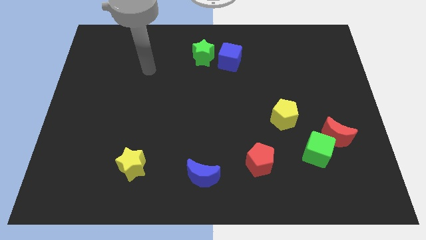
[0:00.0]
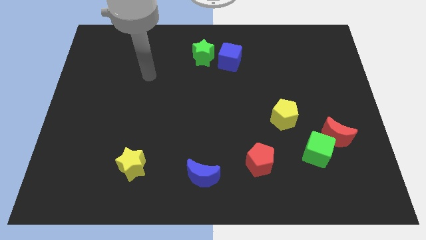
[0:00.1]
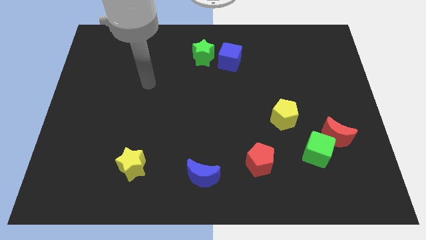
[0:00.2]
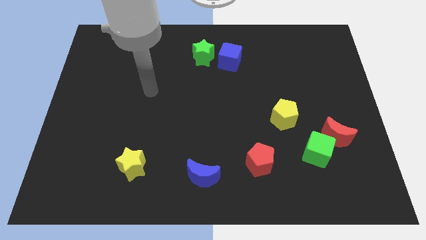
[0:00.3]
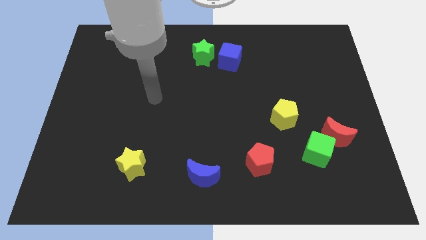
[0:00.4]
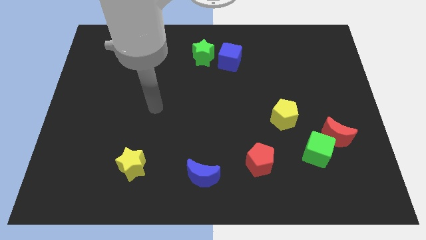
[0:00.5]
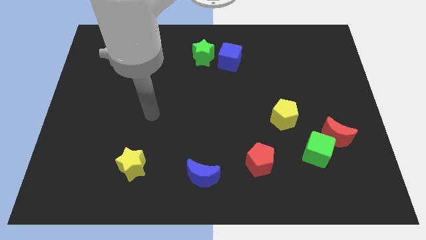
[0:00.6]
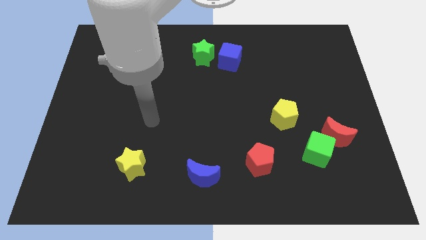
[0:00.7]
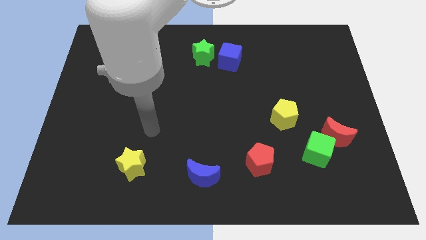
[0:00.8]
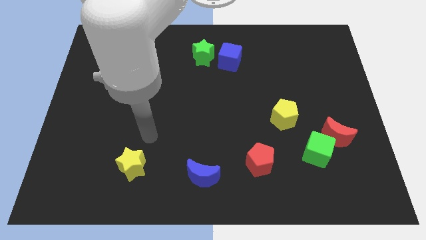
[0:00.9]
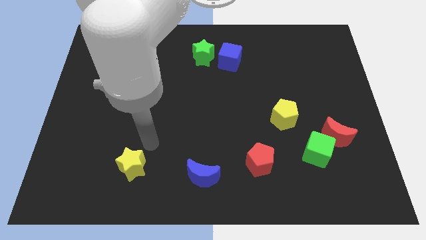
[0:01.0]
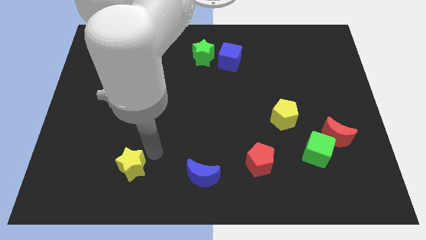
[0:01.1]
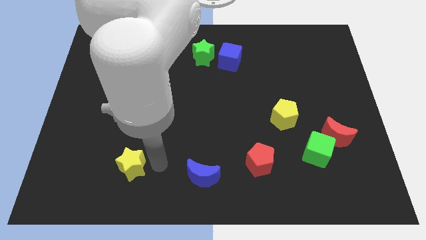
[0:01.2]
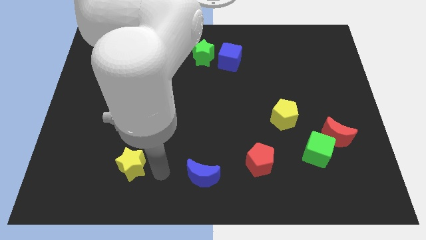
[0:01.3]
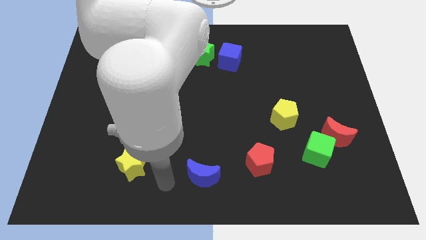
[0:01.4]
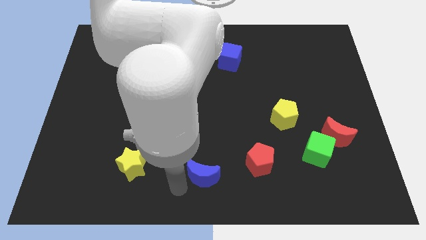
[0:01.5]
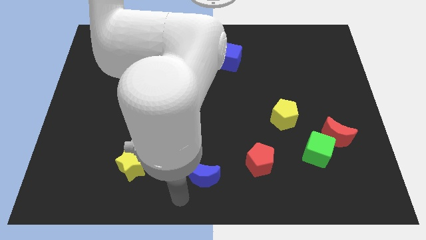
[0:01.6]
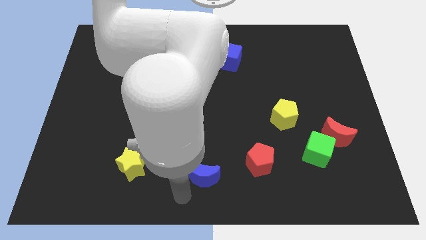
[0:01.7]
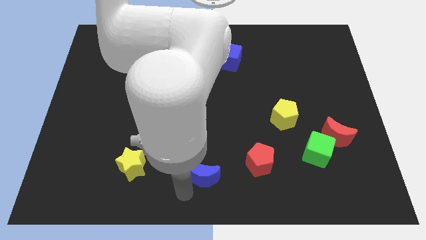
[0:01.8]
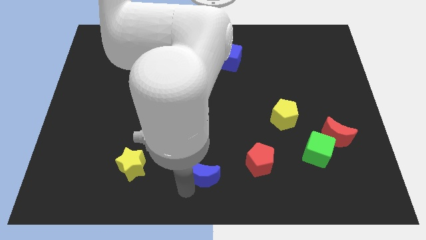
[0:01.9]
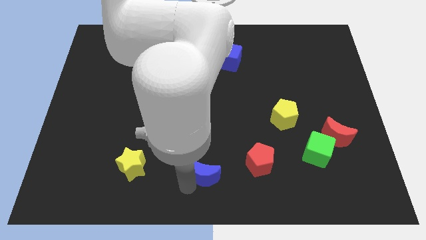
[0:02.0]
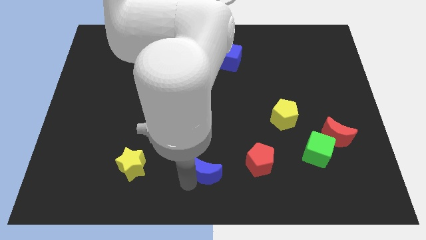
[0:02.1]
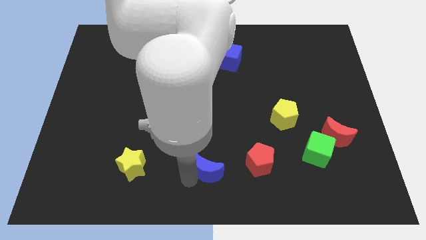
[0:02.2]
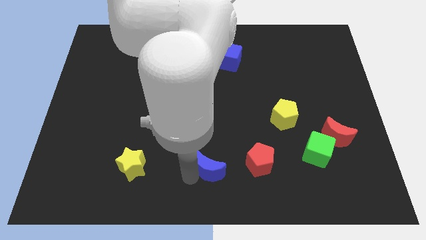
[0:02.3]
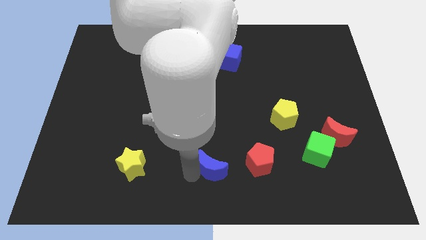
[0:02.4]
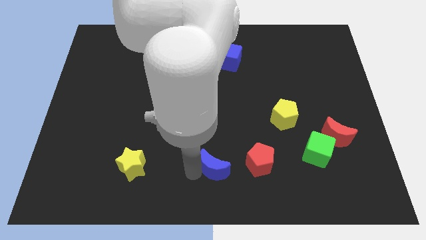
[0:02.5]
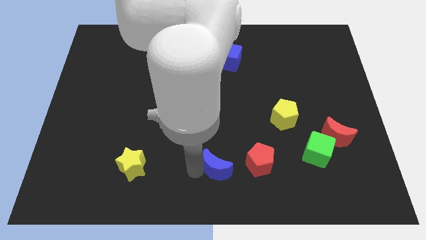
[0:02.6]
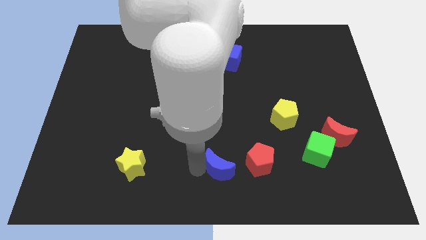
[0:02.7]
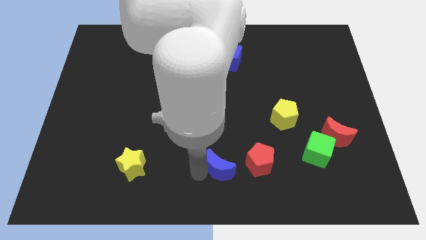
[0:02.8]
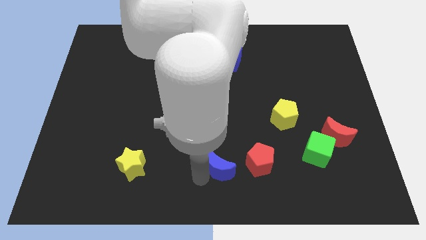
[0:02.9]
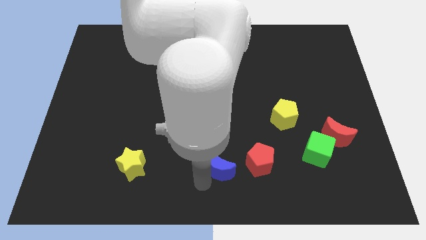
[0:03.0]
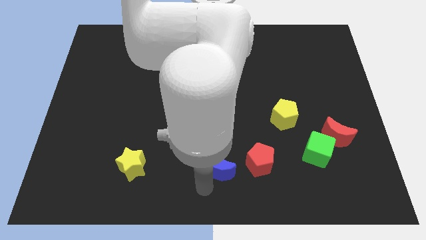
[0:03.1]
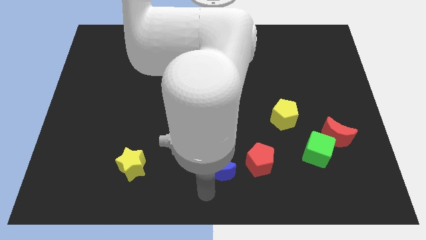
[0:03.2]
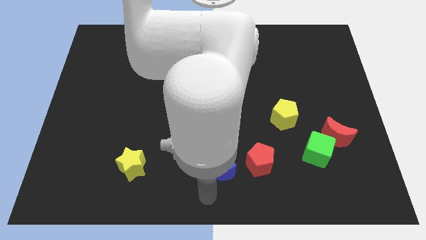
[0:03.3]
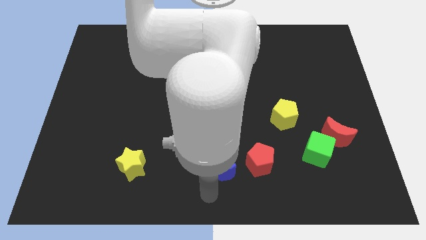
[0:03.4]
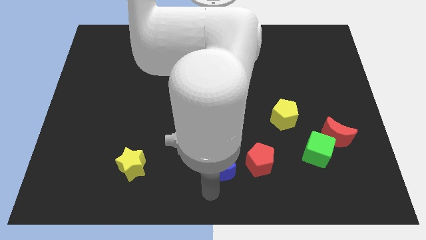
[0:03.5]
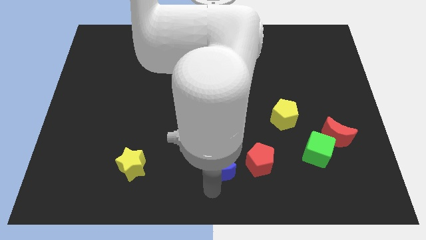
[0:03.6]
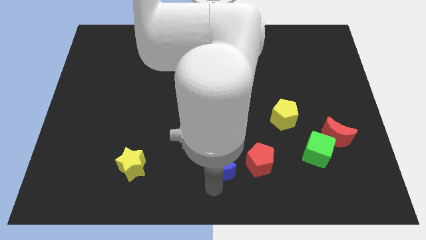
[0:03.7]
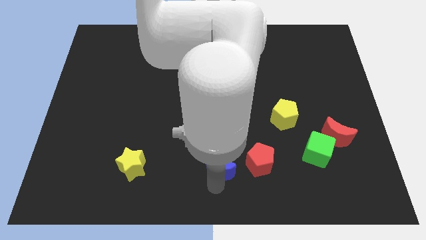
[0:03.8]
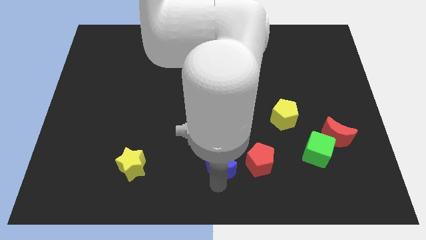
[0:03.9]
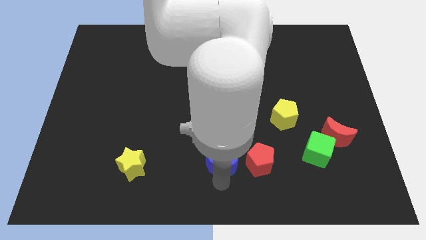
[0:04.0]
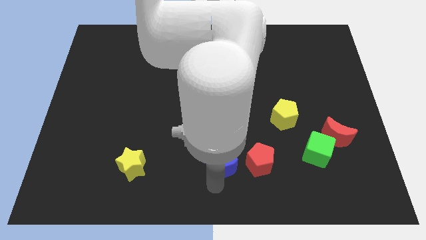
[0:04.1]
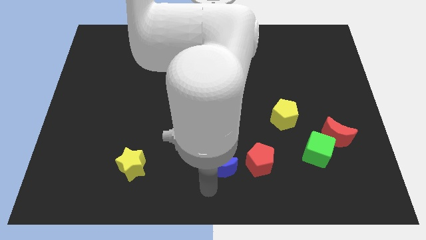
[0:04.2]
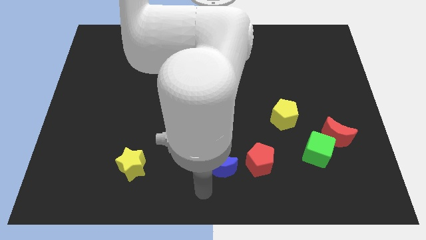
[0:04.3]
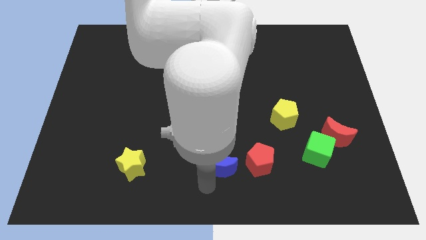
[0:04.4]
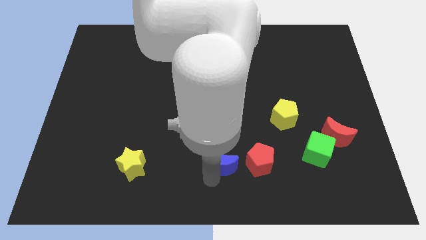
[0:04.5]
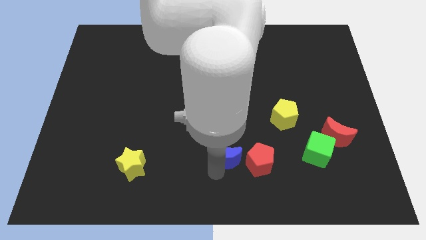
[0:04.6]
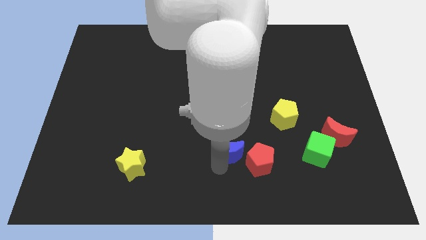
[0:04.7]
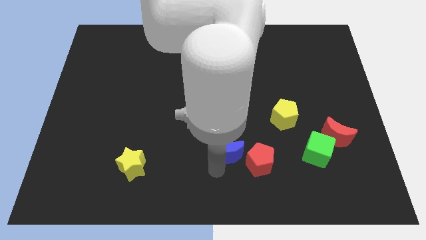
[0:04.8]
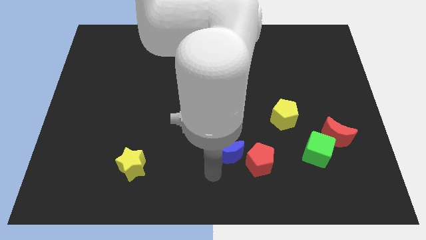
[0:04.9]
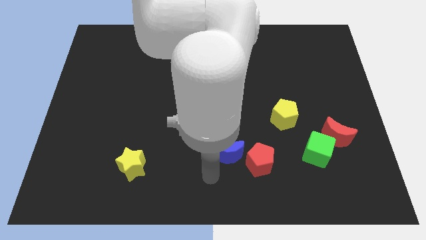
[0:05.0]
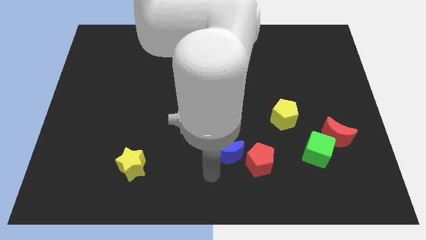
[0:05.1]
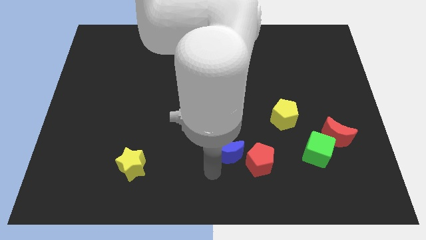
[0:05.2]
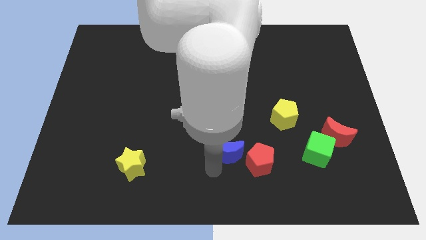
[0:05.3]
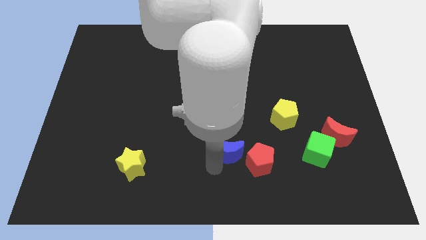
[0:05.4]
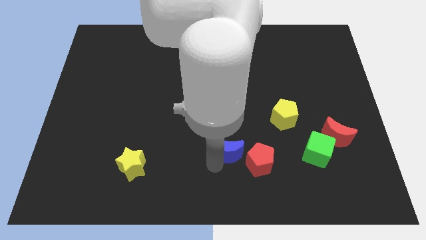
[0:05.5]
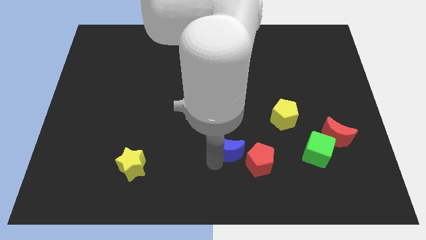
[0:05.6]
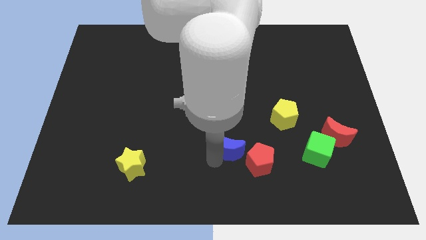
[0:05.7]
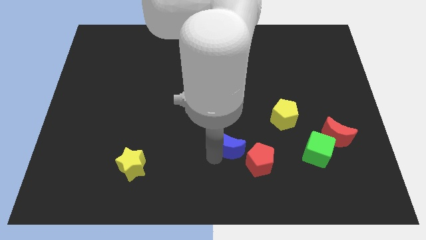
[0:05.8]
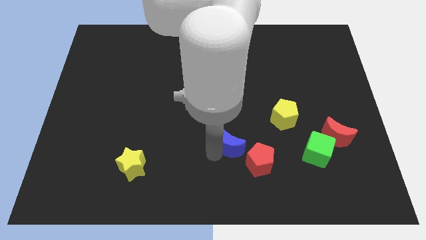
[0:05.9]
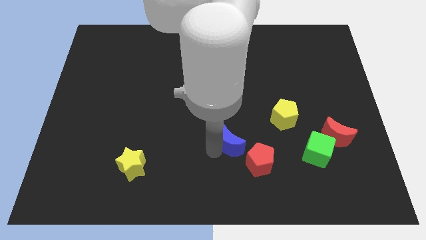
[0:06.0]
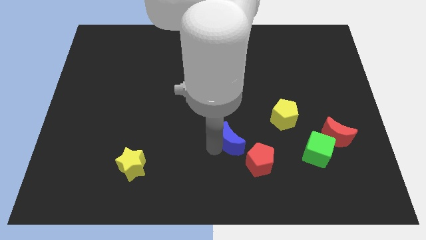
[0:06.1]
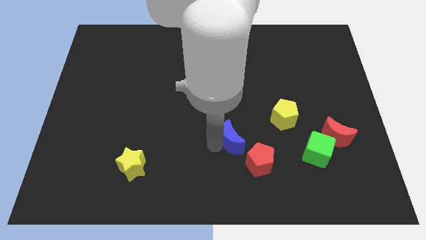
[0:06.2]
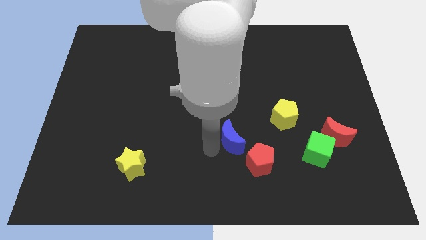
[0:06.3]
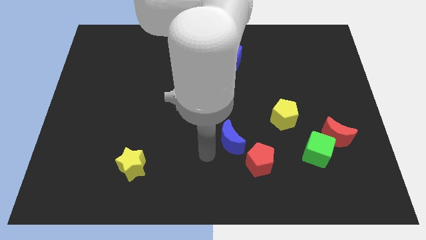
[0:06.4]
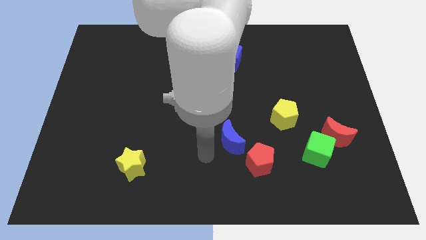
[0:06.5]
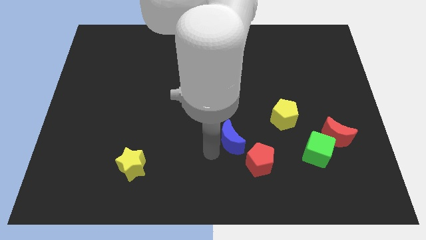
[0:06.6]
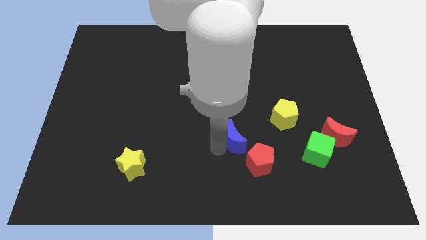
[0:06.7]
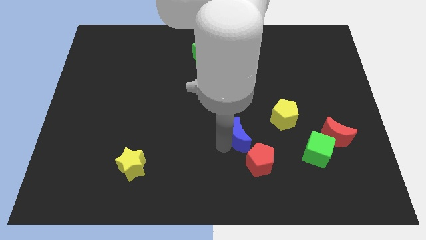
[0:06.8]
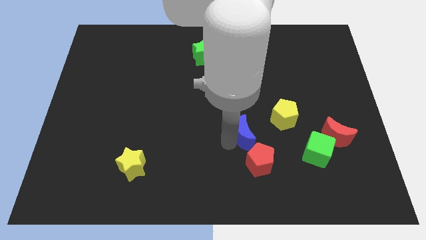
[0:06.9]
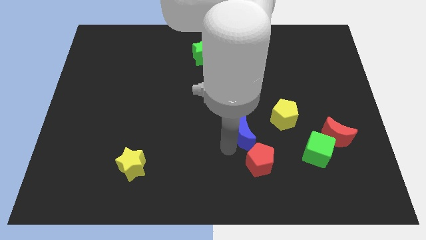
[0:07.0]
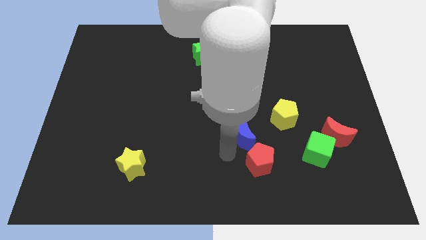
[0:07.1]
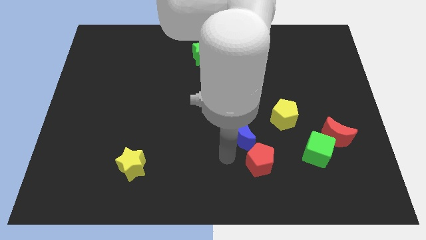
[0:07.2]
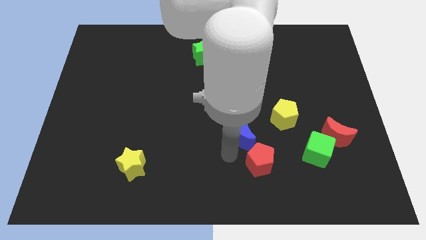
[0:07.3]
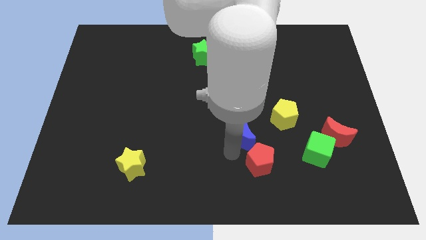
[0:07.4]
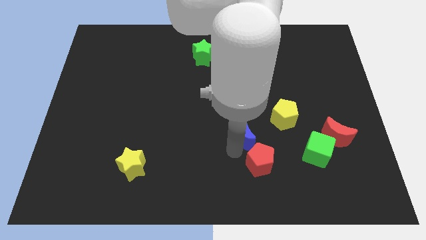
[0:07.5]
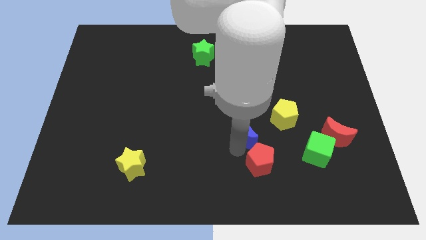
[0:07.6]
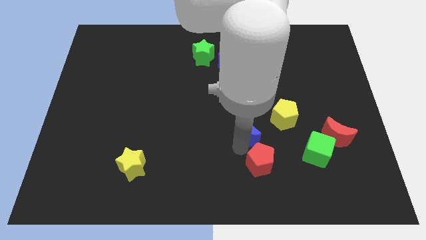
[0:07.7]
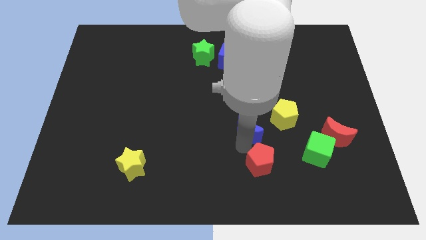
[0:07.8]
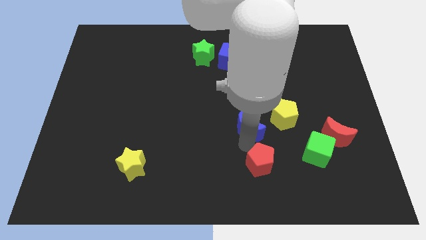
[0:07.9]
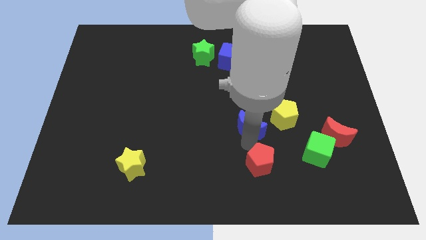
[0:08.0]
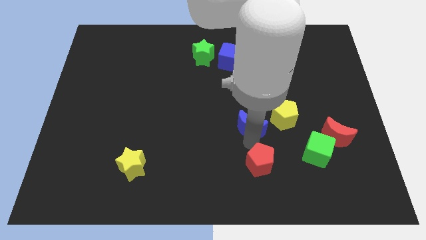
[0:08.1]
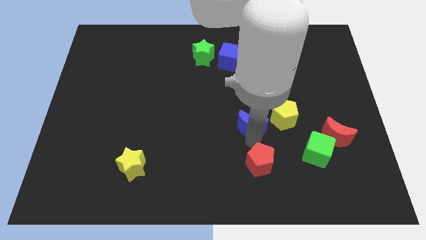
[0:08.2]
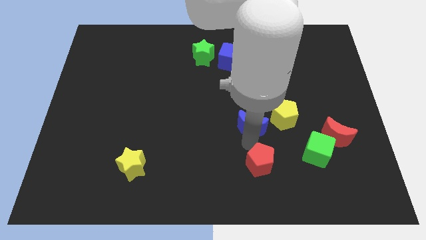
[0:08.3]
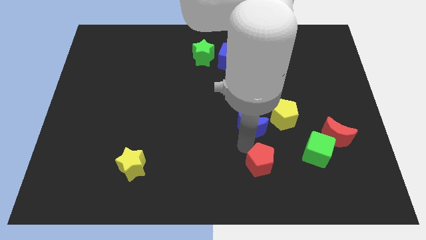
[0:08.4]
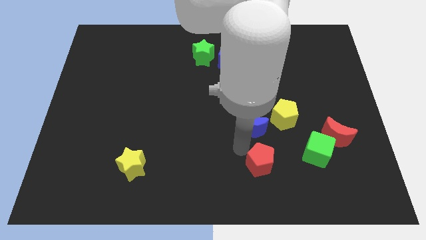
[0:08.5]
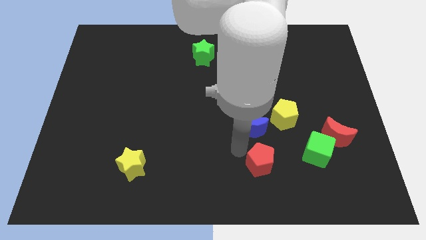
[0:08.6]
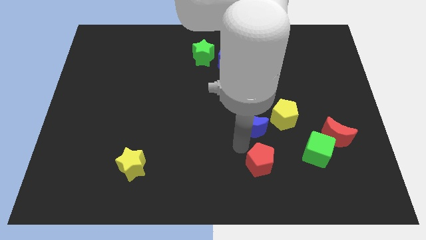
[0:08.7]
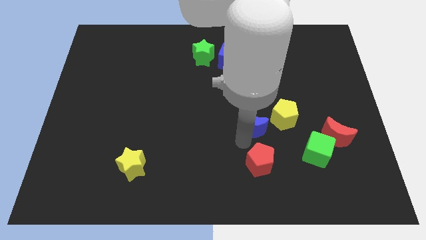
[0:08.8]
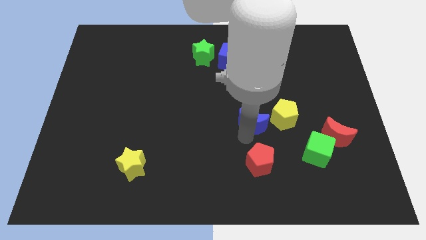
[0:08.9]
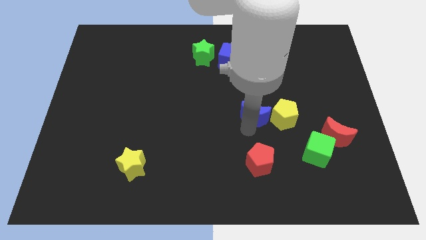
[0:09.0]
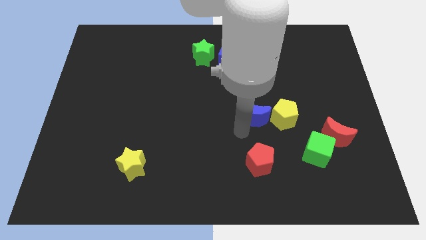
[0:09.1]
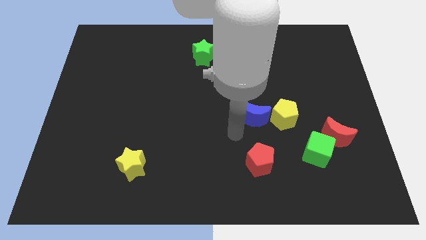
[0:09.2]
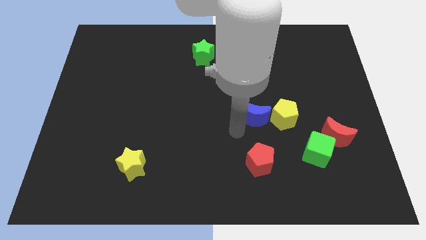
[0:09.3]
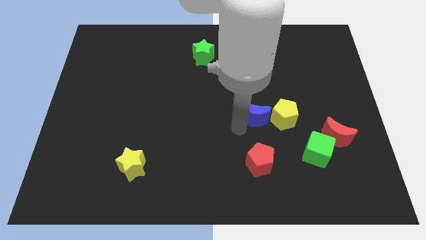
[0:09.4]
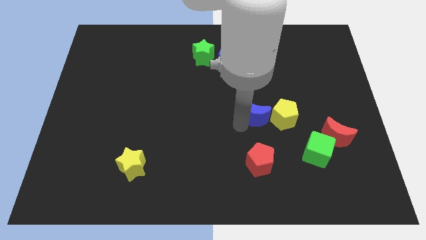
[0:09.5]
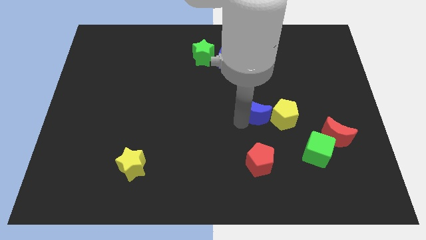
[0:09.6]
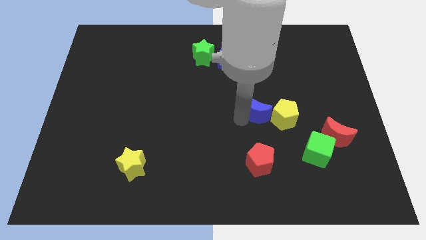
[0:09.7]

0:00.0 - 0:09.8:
slide the blue moon up and right diagonally
